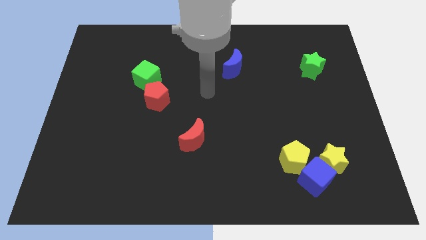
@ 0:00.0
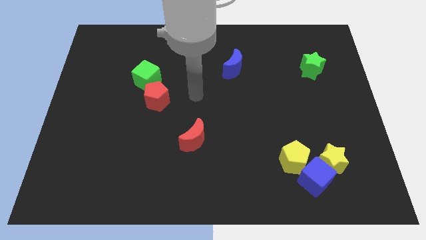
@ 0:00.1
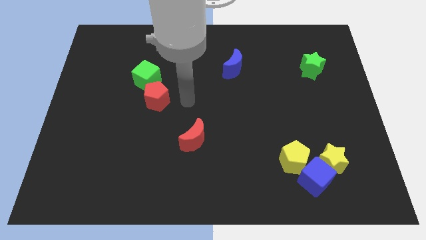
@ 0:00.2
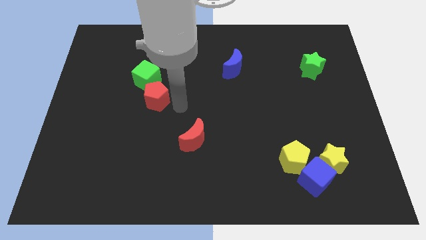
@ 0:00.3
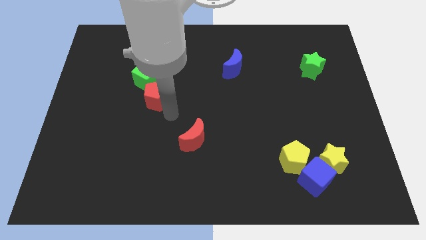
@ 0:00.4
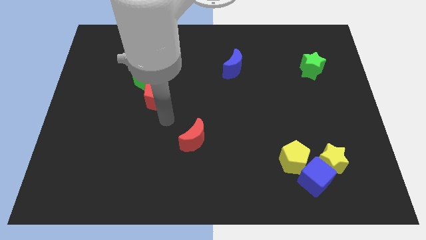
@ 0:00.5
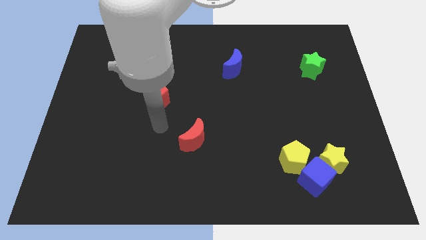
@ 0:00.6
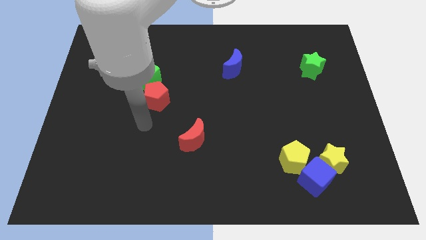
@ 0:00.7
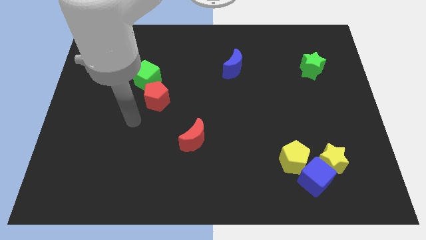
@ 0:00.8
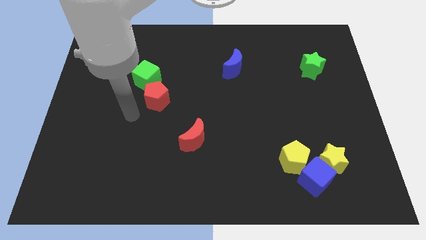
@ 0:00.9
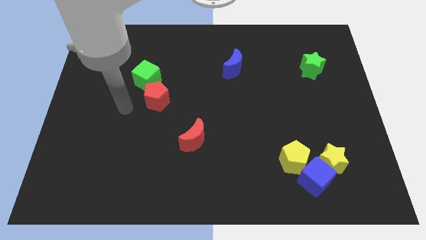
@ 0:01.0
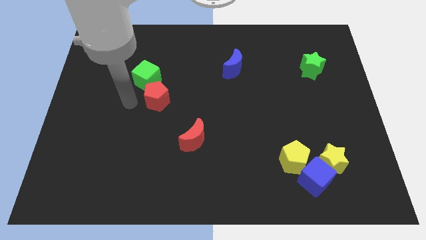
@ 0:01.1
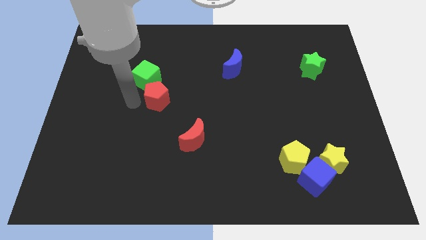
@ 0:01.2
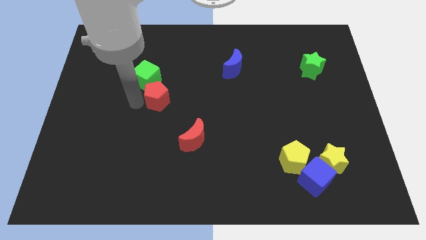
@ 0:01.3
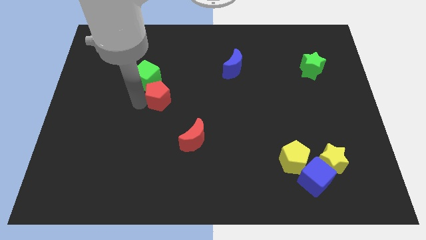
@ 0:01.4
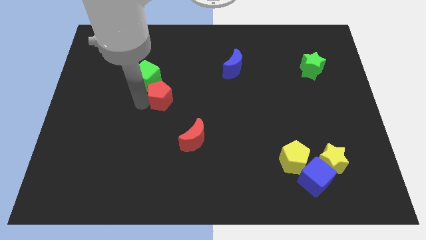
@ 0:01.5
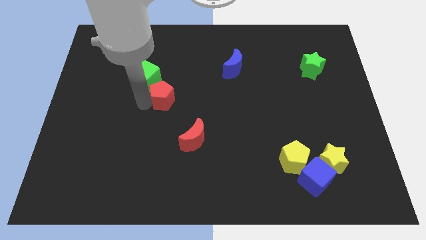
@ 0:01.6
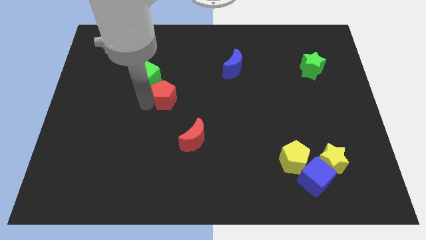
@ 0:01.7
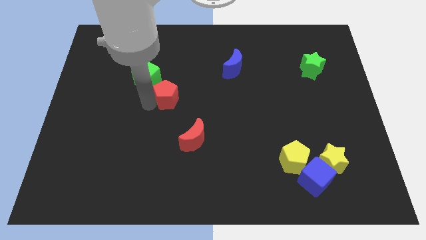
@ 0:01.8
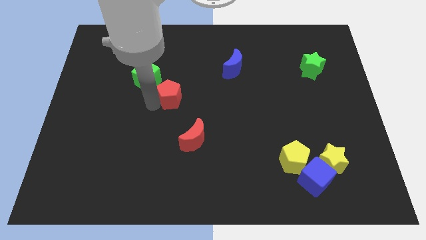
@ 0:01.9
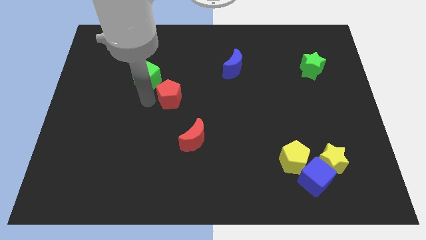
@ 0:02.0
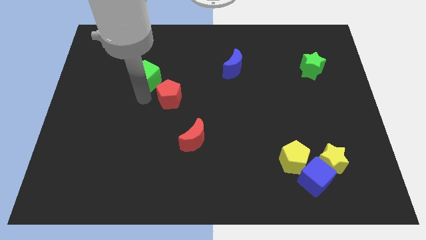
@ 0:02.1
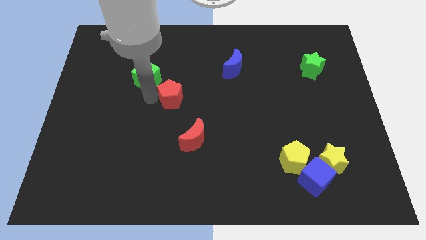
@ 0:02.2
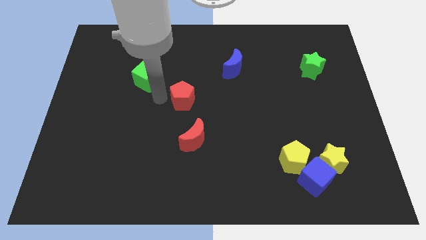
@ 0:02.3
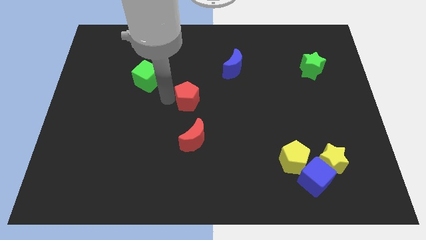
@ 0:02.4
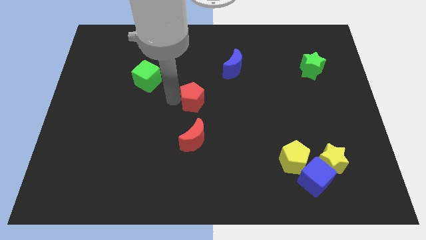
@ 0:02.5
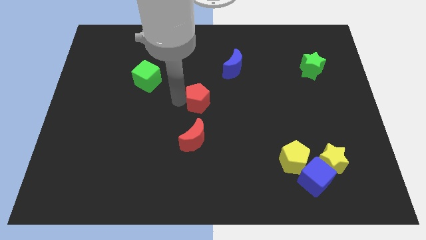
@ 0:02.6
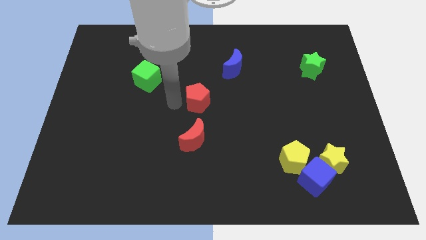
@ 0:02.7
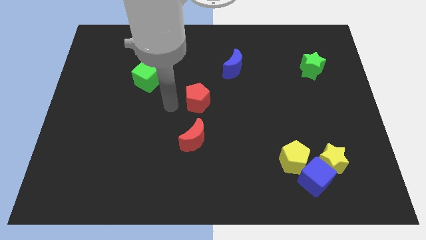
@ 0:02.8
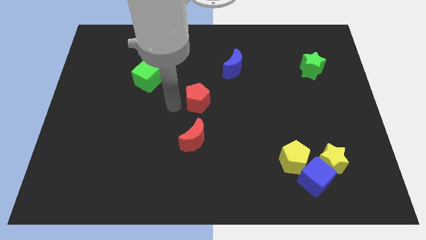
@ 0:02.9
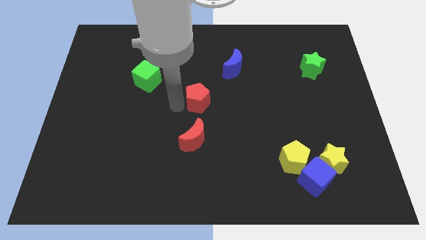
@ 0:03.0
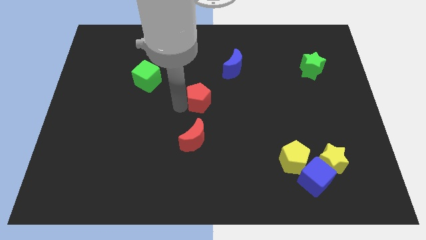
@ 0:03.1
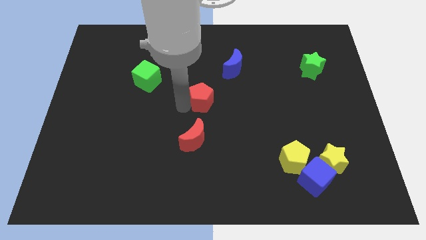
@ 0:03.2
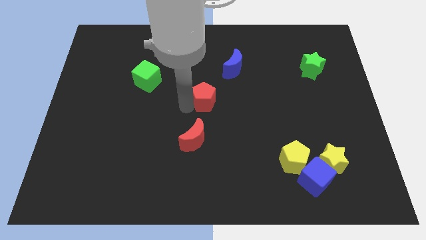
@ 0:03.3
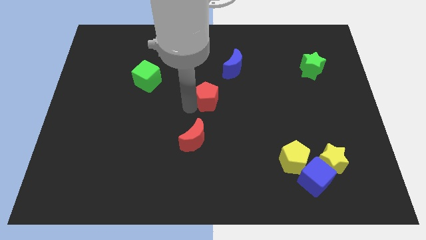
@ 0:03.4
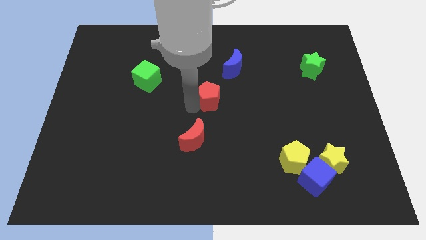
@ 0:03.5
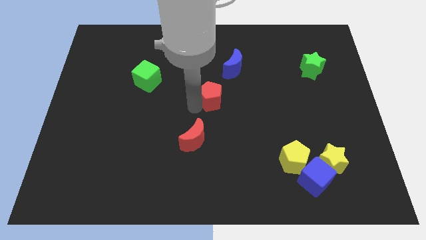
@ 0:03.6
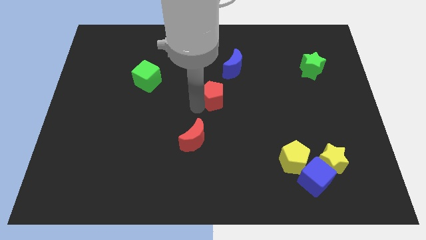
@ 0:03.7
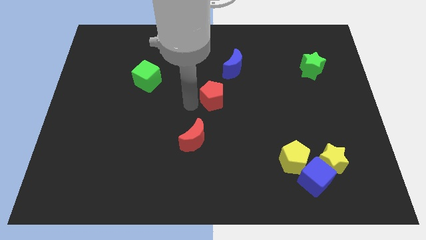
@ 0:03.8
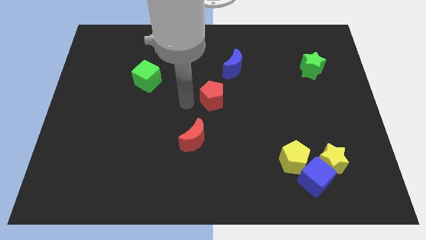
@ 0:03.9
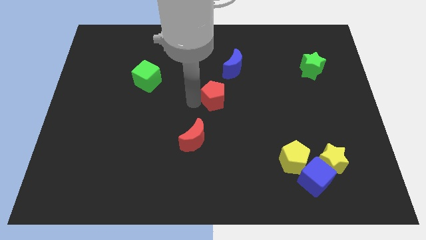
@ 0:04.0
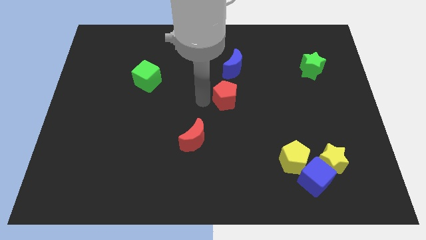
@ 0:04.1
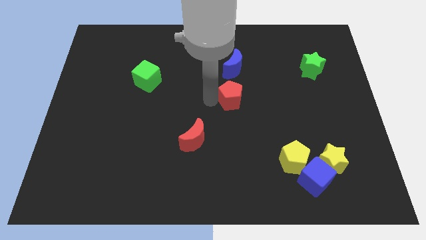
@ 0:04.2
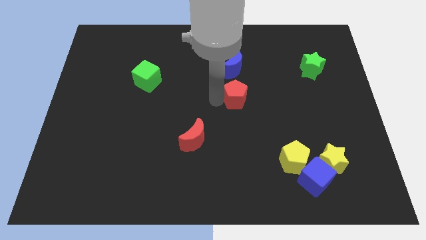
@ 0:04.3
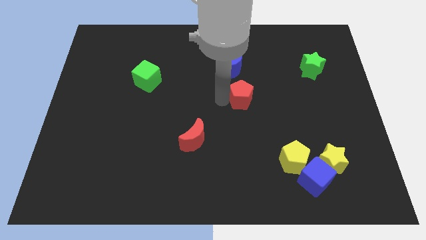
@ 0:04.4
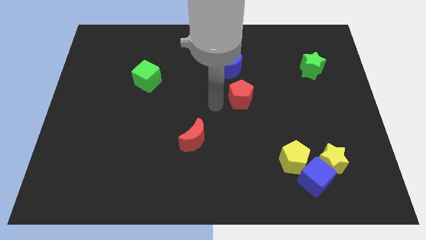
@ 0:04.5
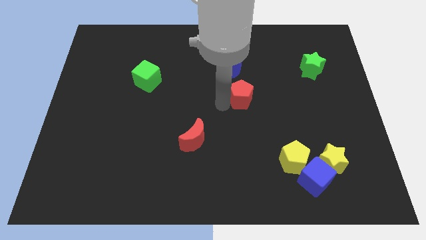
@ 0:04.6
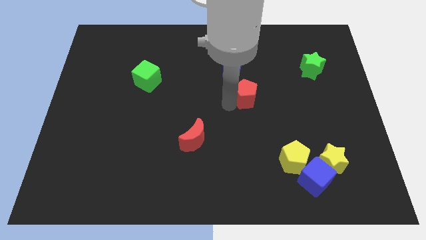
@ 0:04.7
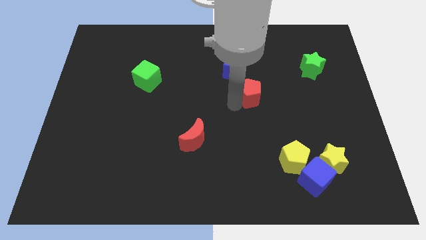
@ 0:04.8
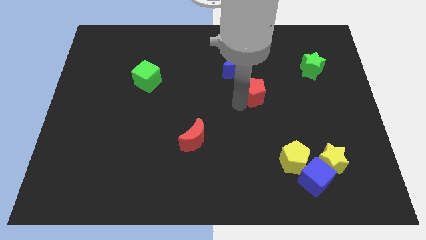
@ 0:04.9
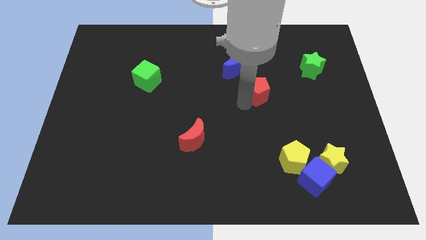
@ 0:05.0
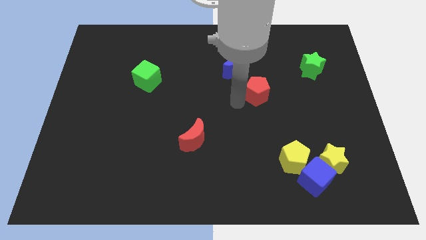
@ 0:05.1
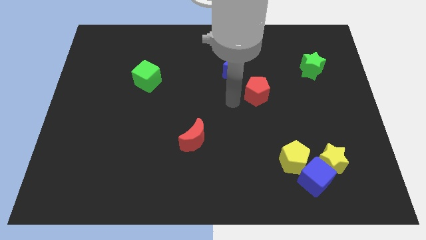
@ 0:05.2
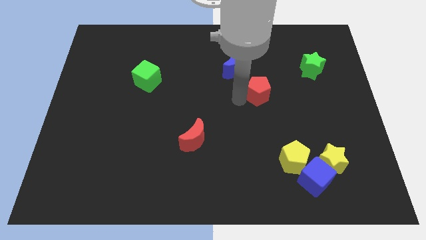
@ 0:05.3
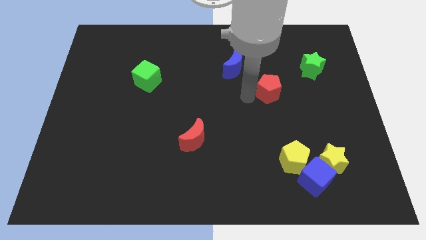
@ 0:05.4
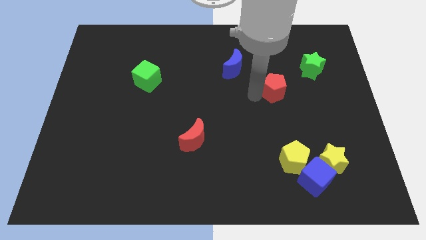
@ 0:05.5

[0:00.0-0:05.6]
move the red pentagon to the bottom left side of the green star
